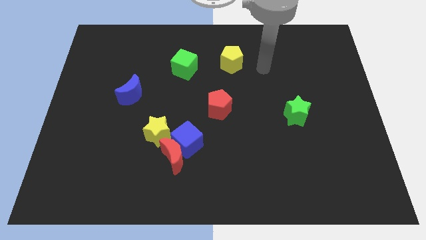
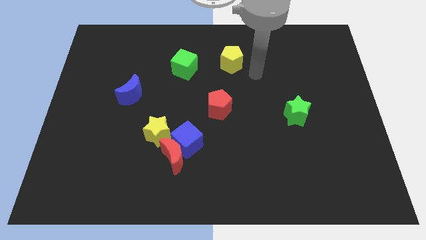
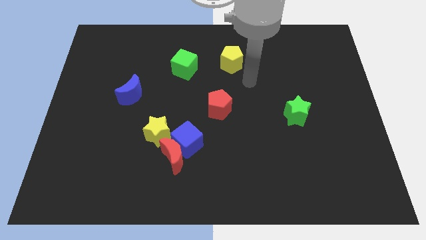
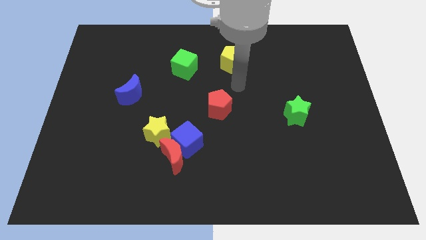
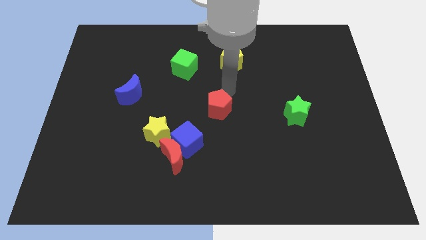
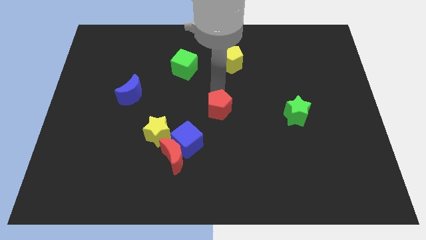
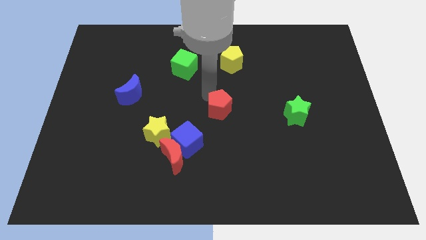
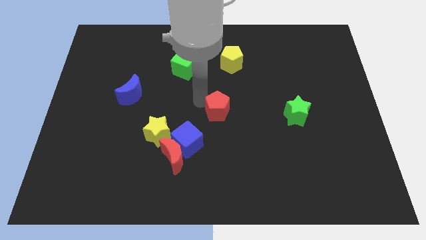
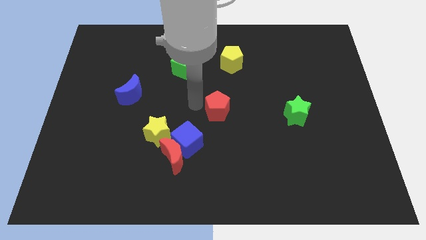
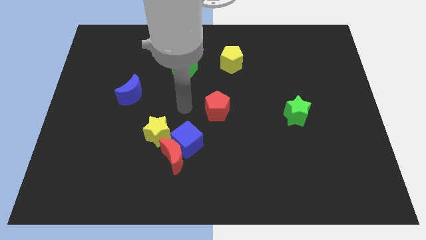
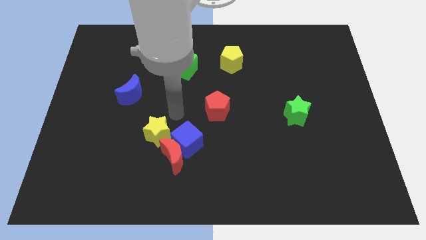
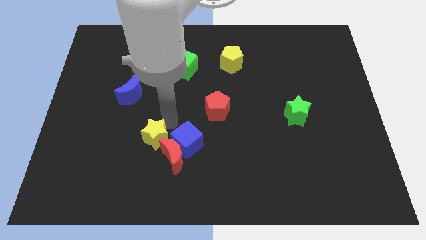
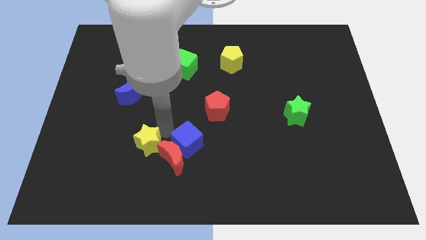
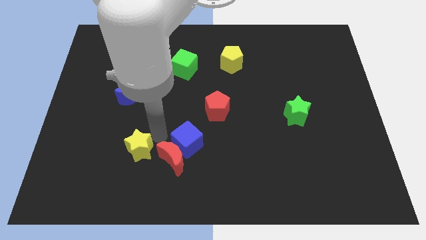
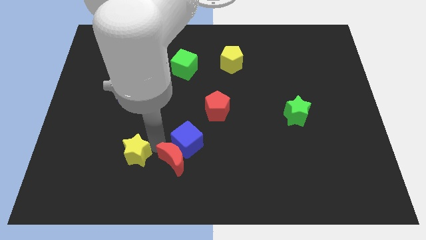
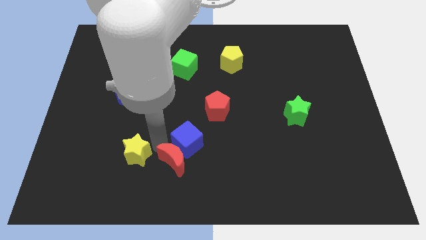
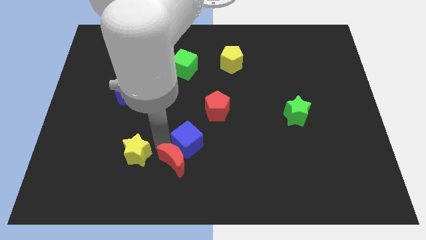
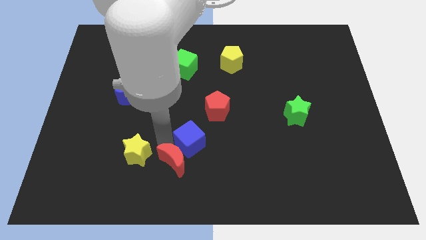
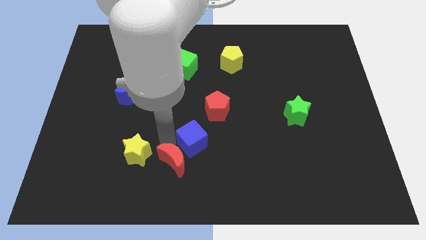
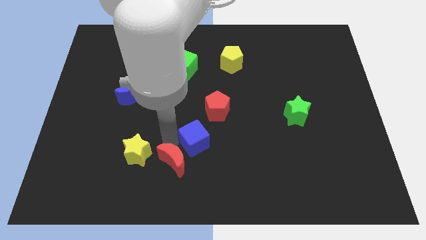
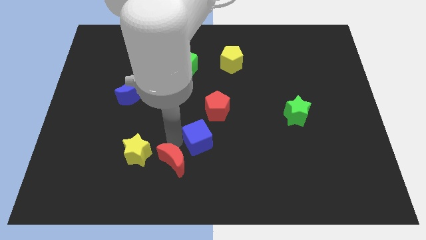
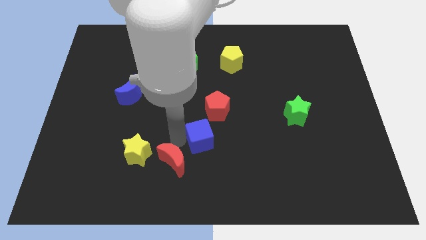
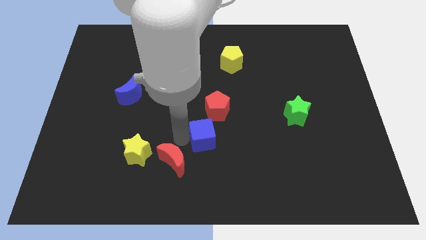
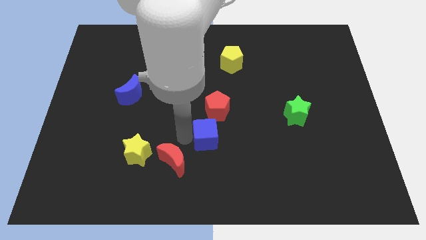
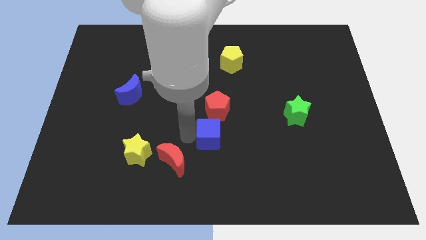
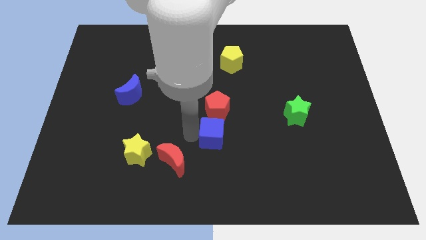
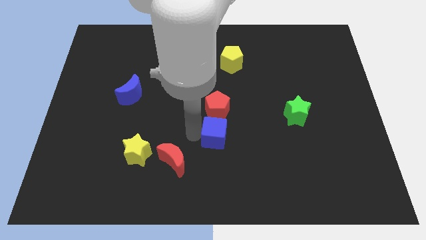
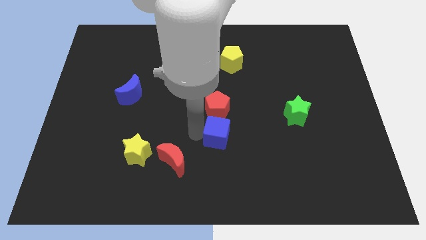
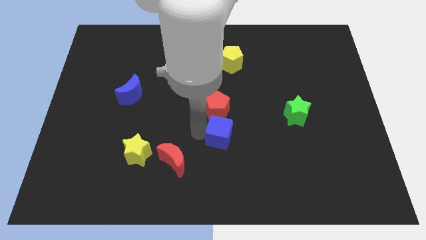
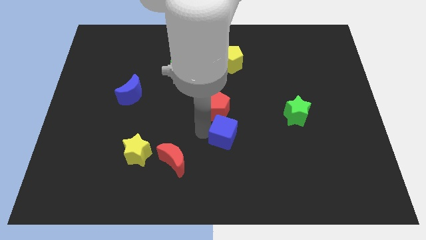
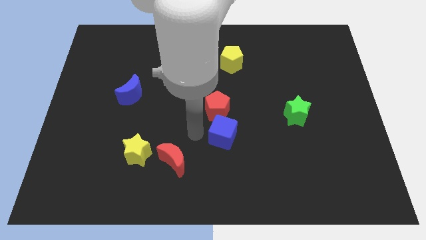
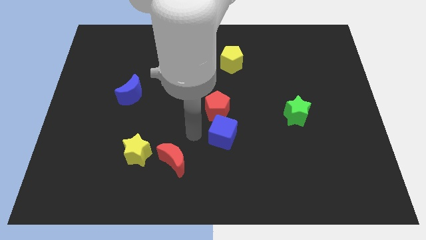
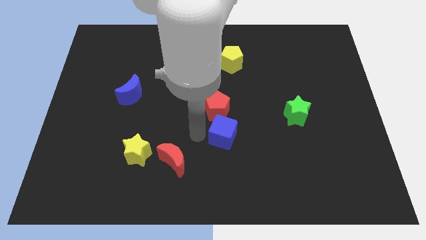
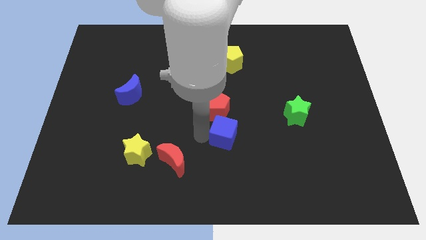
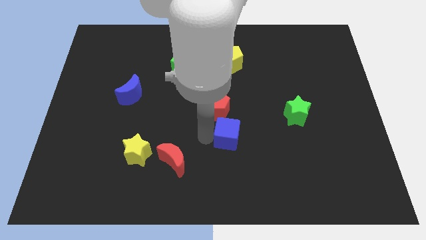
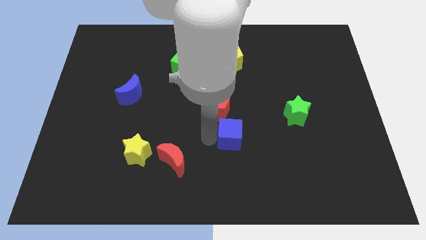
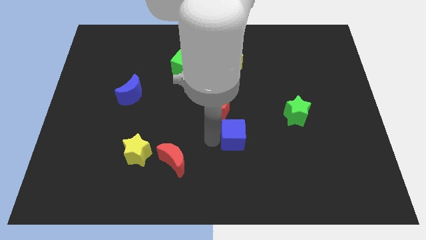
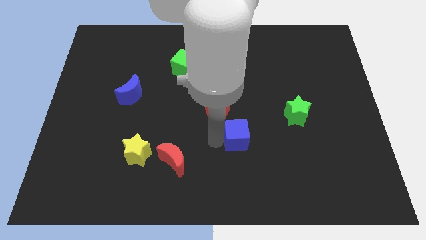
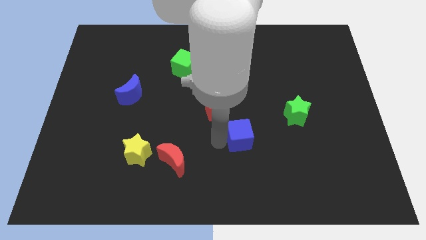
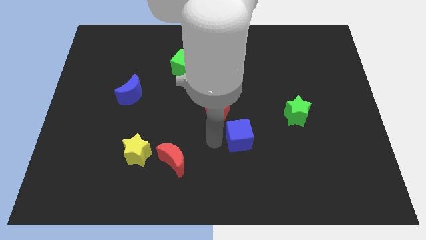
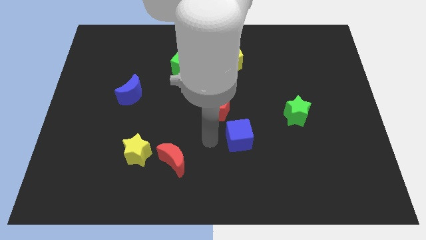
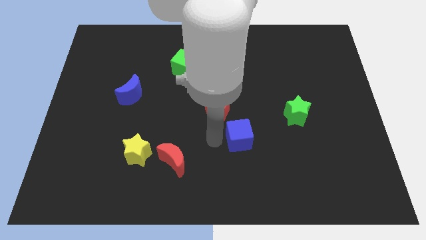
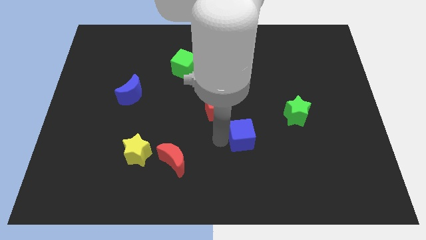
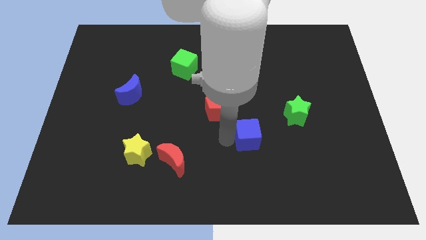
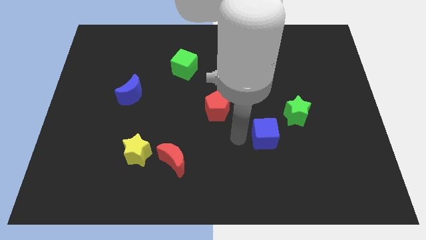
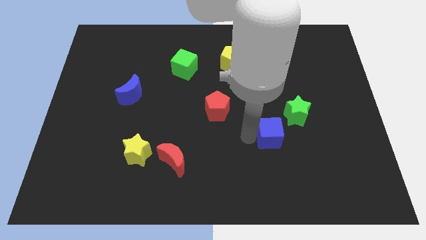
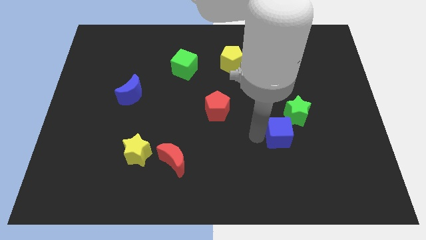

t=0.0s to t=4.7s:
move the blue cube right

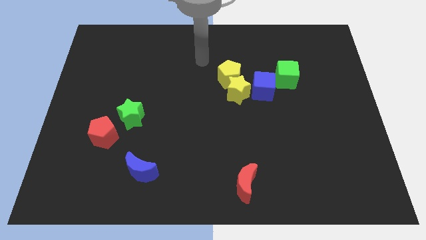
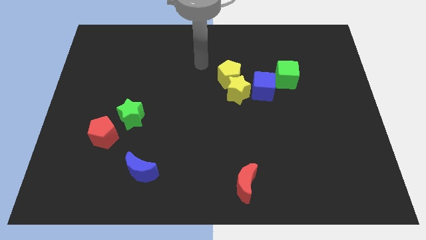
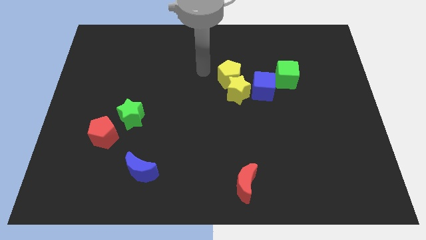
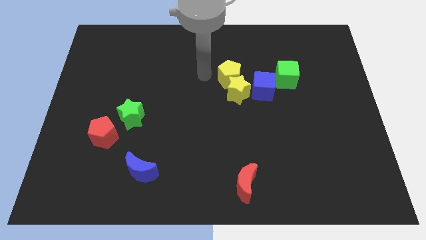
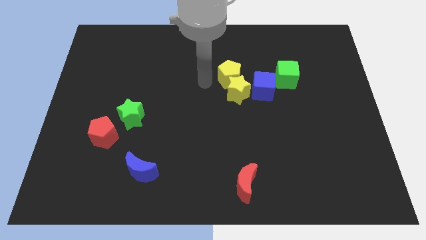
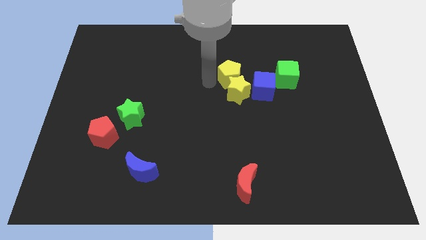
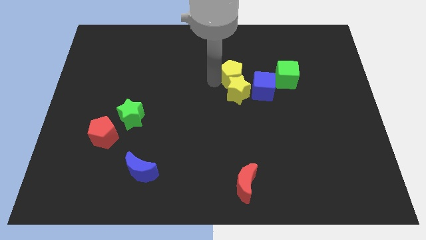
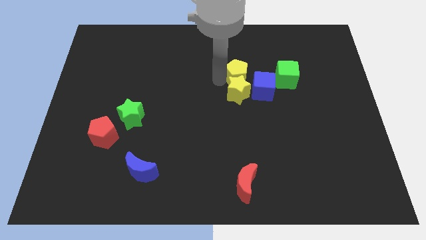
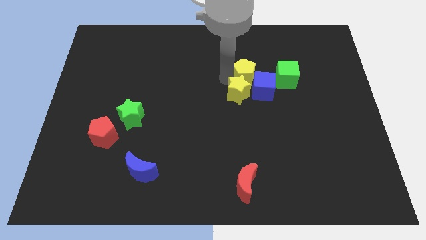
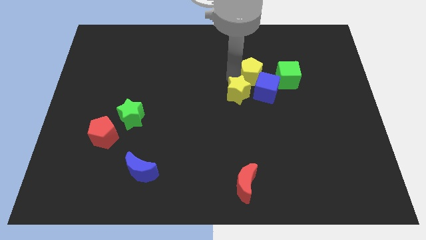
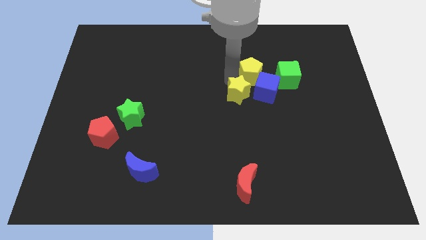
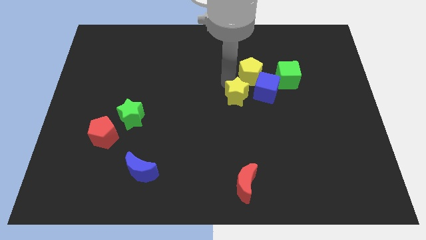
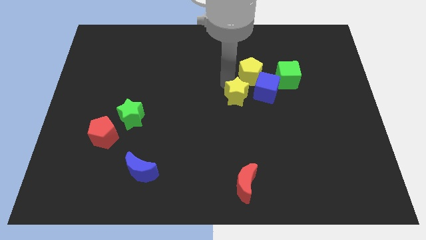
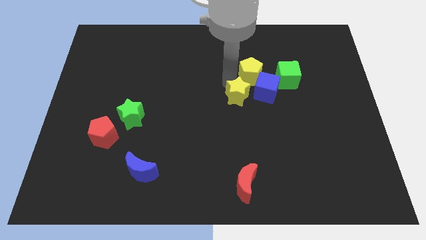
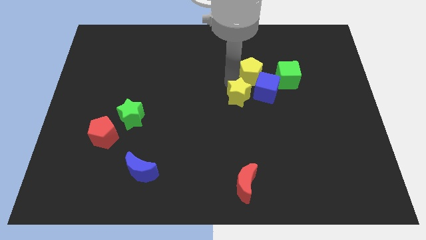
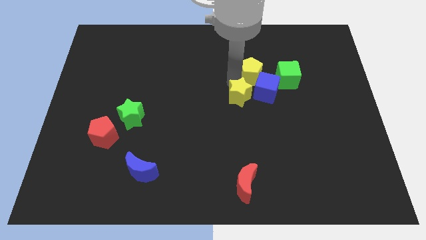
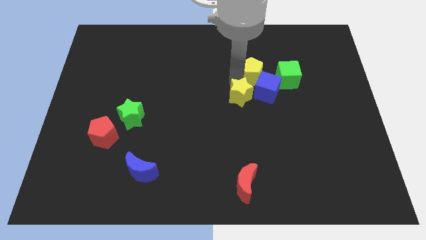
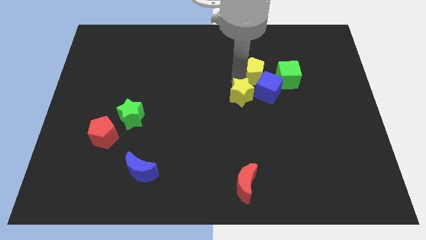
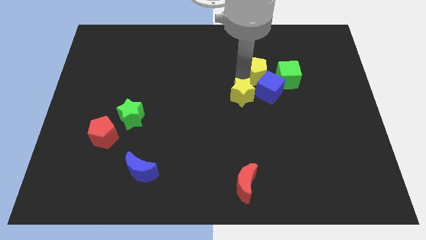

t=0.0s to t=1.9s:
slide the yellow pentagon right a little

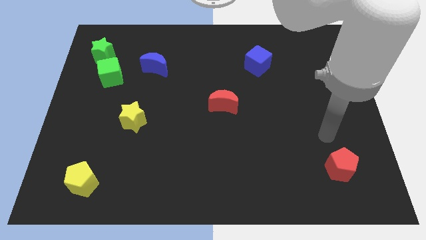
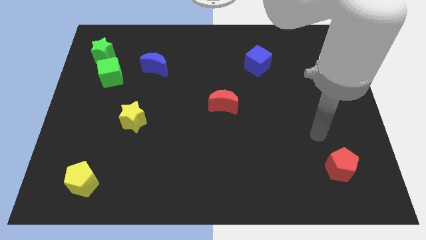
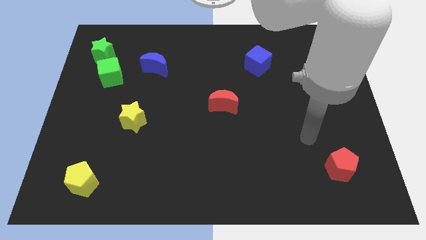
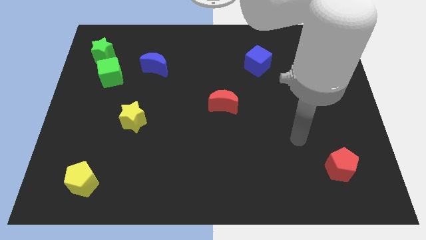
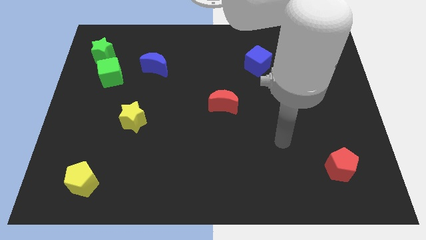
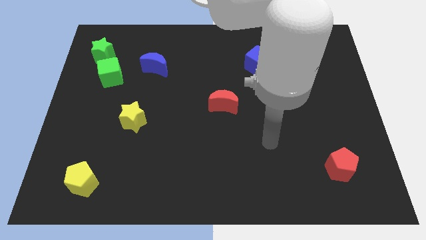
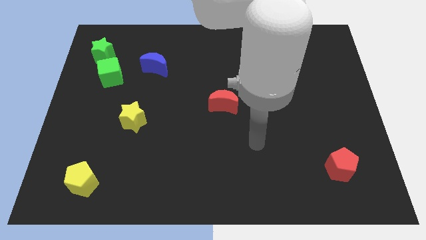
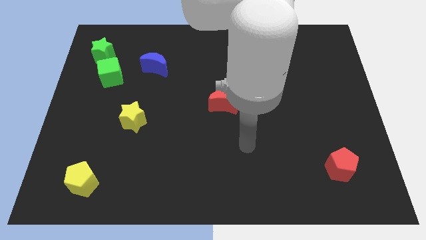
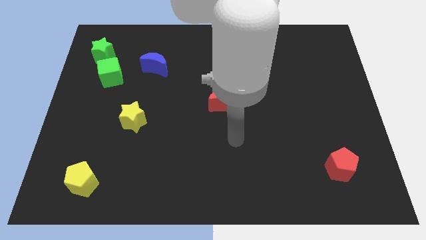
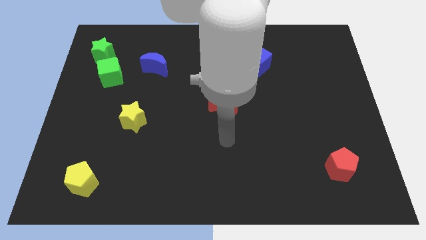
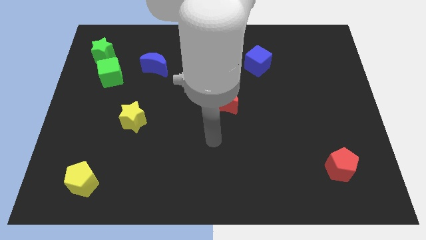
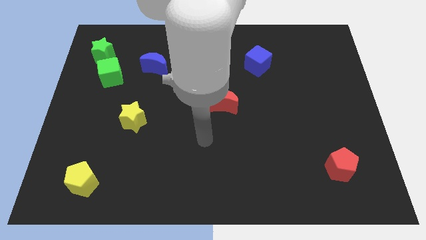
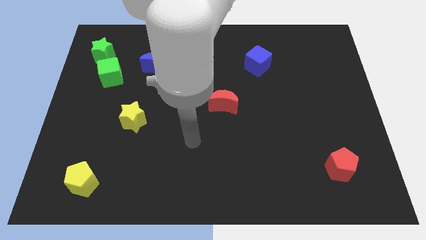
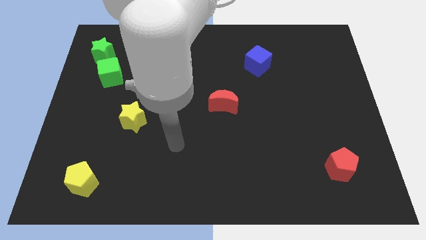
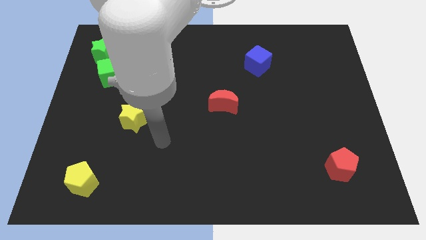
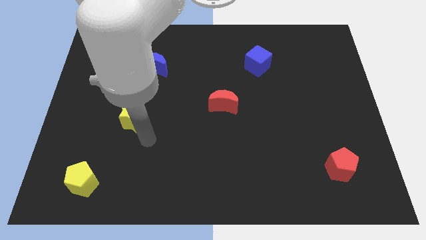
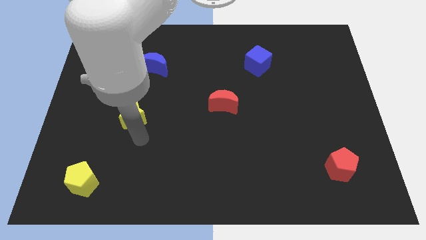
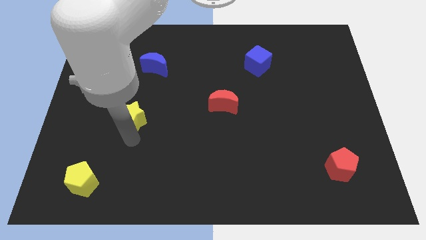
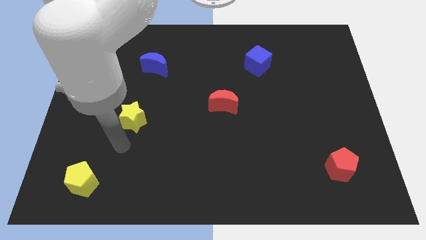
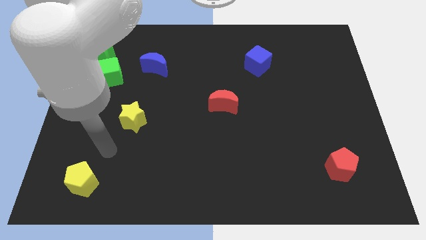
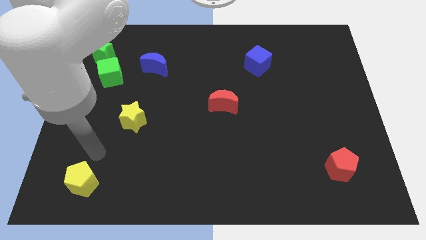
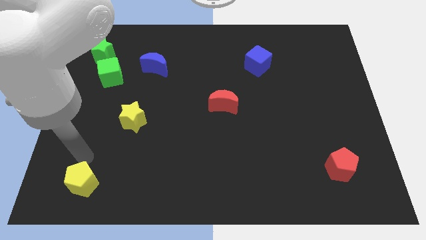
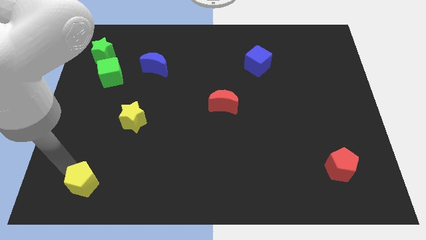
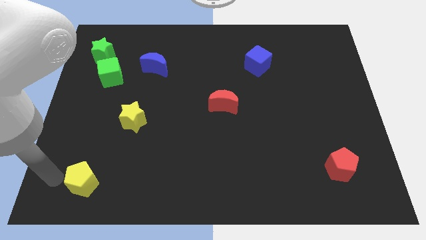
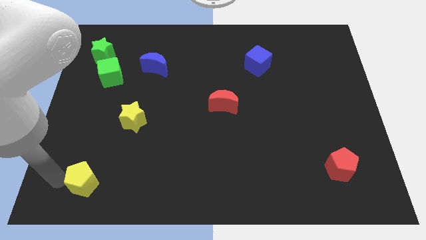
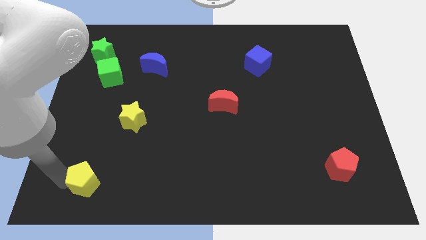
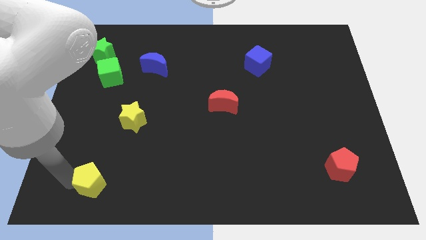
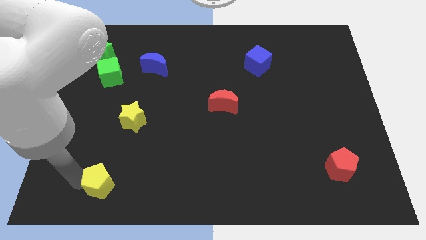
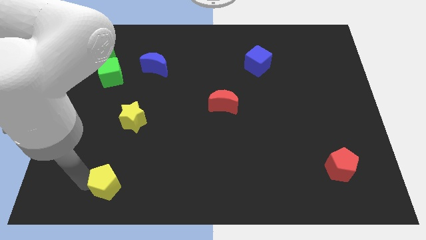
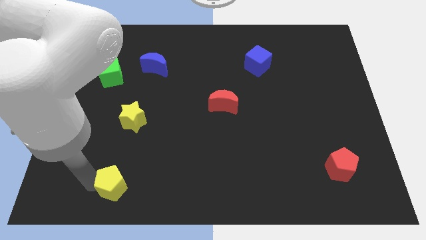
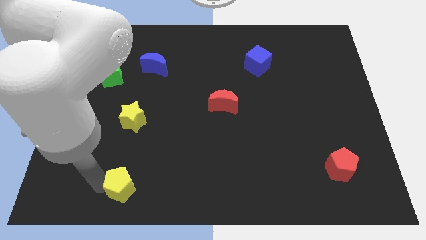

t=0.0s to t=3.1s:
slide the yellow pentagon a little bit right
